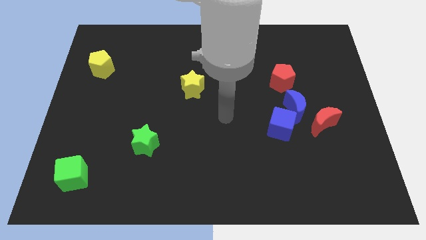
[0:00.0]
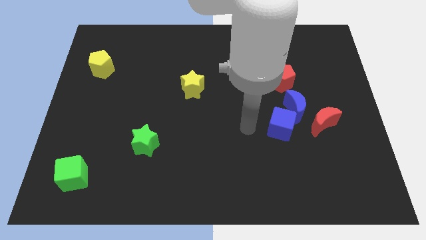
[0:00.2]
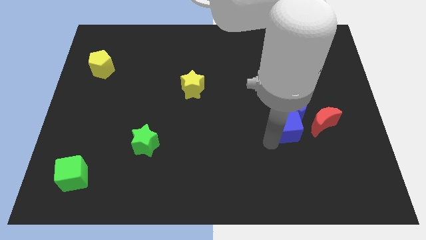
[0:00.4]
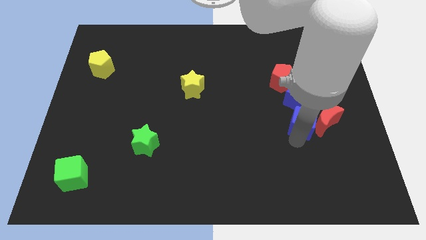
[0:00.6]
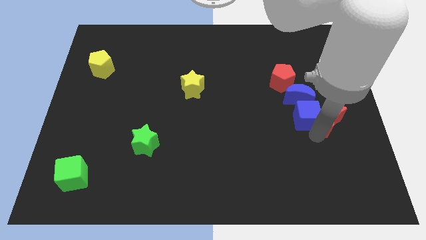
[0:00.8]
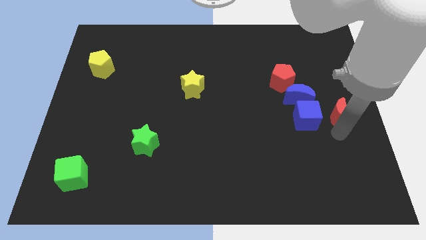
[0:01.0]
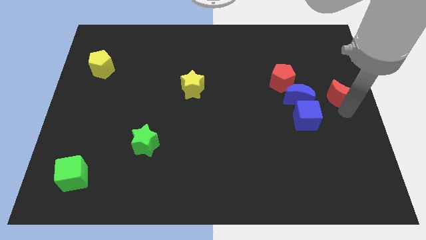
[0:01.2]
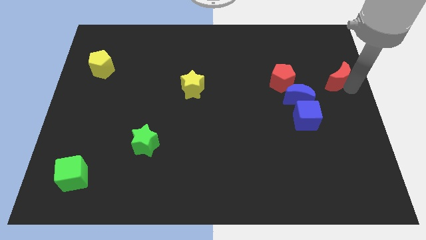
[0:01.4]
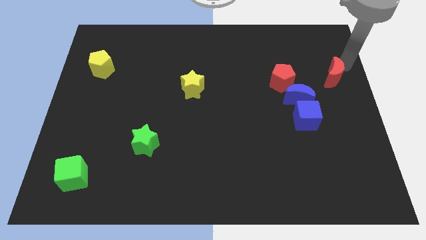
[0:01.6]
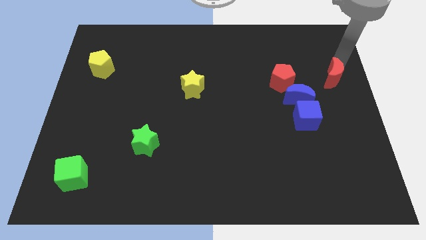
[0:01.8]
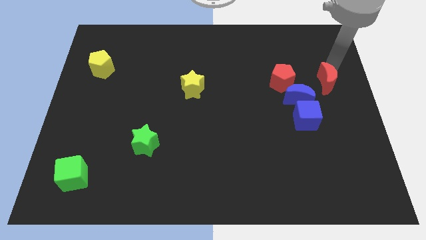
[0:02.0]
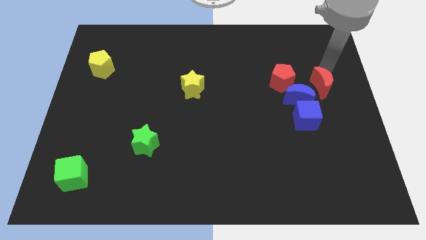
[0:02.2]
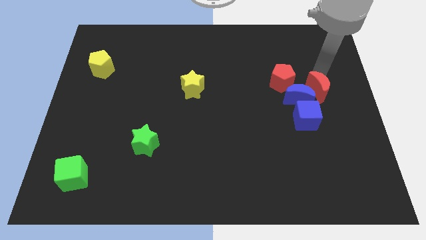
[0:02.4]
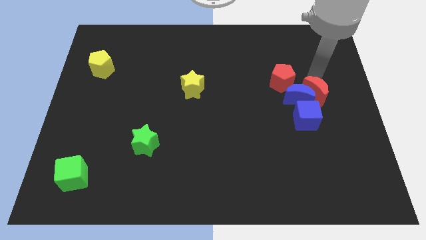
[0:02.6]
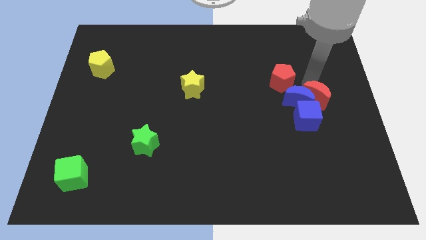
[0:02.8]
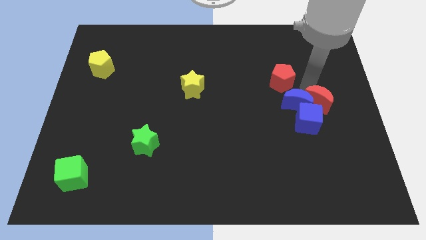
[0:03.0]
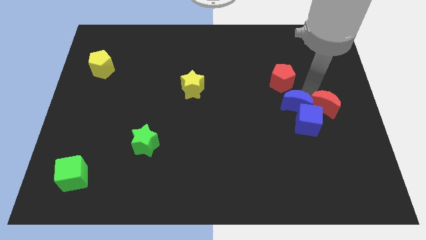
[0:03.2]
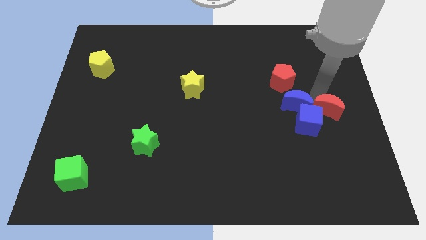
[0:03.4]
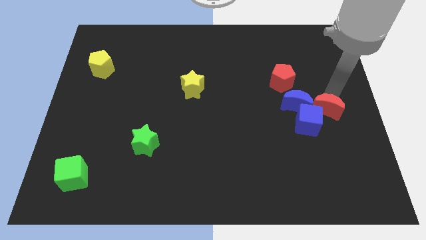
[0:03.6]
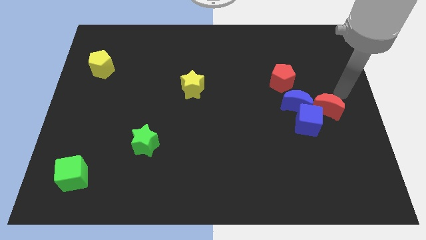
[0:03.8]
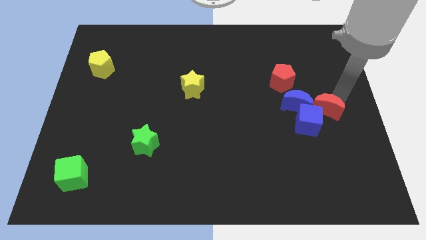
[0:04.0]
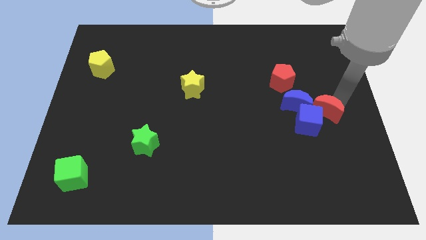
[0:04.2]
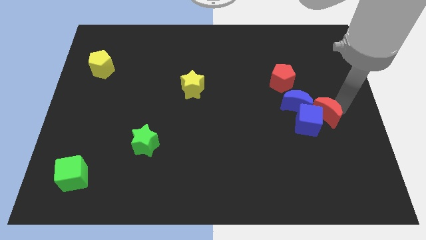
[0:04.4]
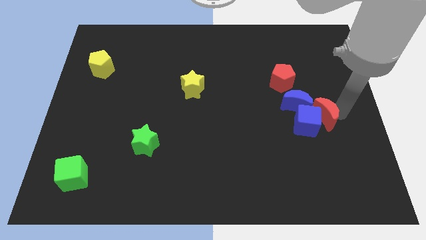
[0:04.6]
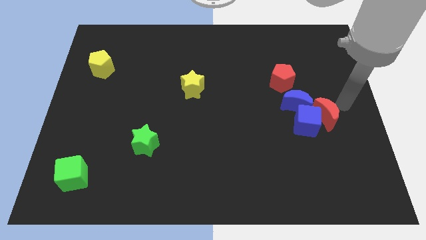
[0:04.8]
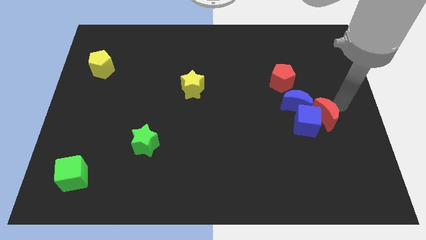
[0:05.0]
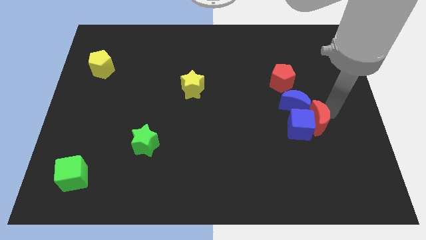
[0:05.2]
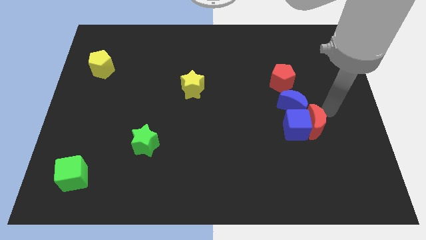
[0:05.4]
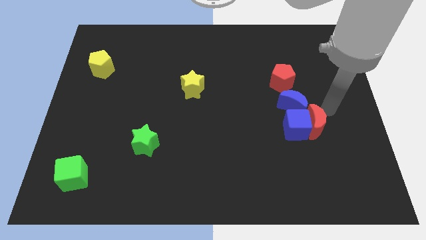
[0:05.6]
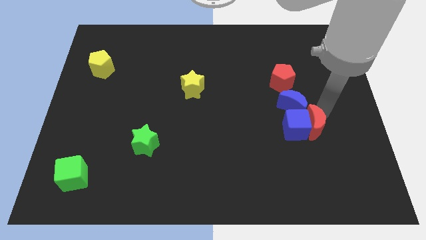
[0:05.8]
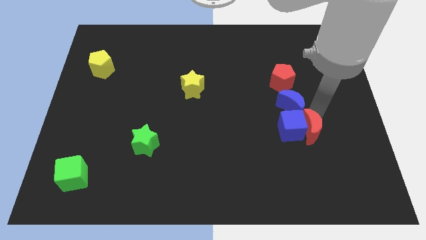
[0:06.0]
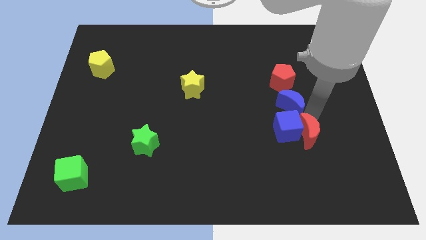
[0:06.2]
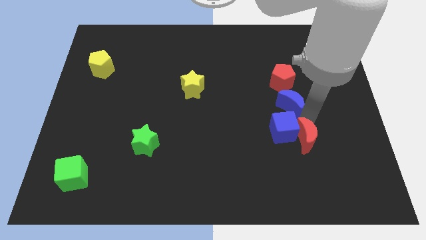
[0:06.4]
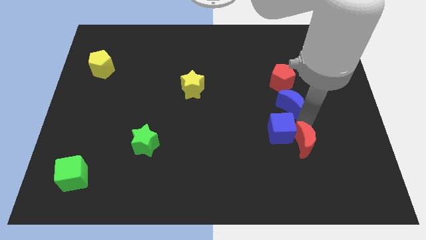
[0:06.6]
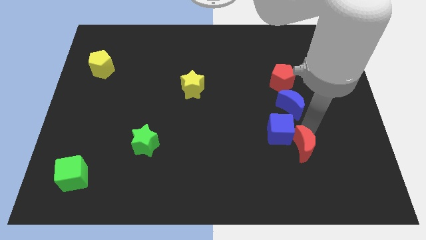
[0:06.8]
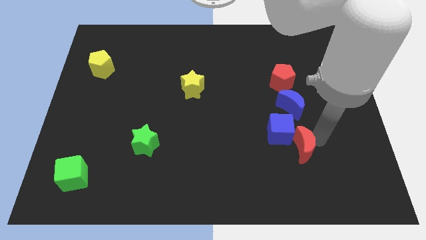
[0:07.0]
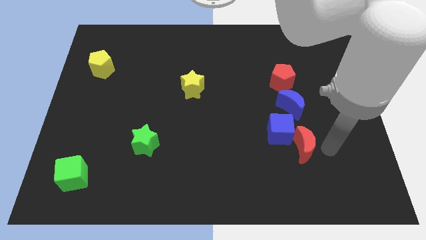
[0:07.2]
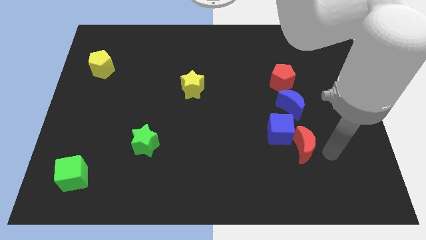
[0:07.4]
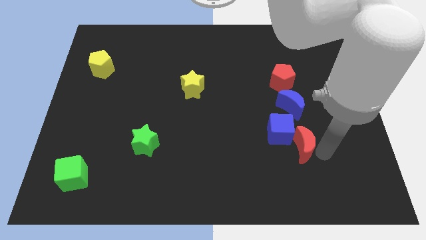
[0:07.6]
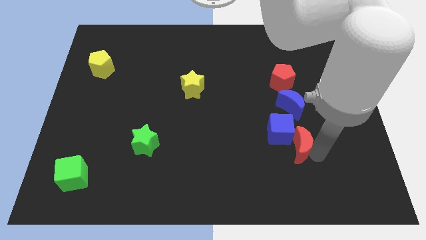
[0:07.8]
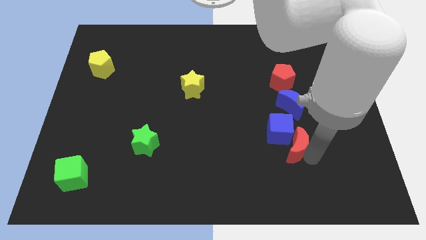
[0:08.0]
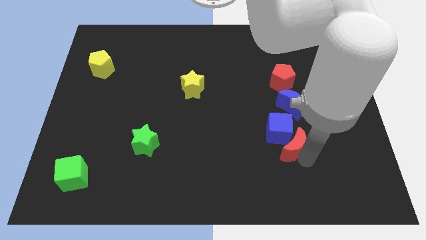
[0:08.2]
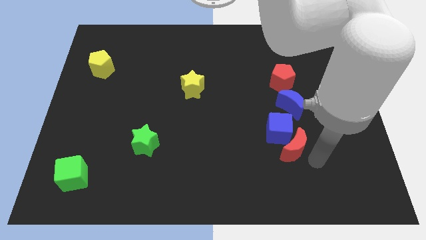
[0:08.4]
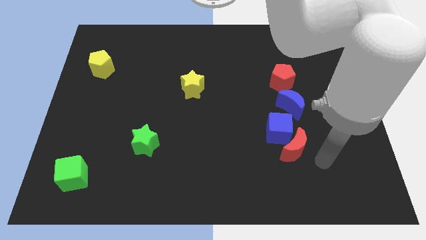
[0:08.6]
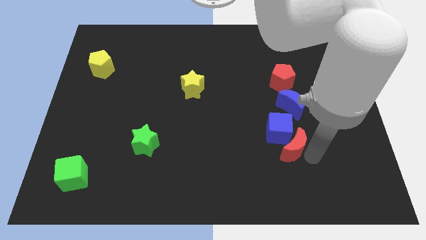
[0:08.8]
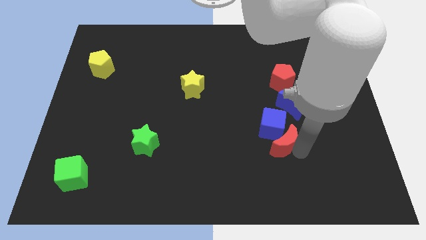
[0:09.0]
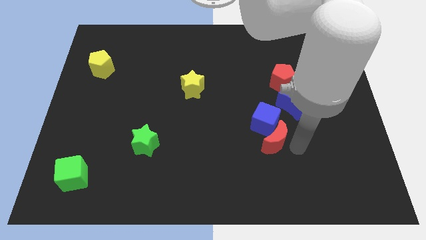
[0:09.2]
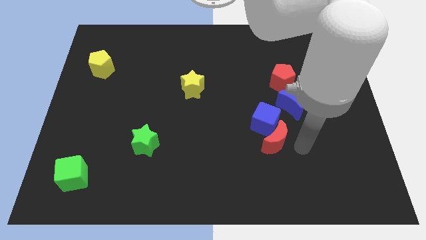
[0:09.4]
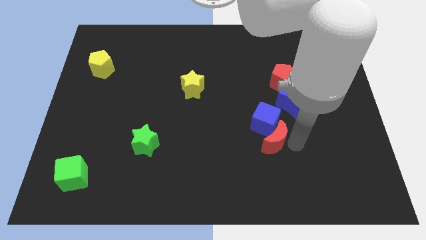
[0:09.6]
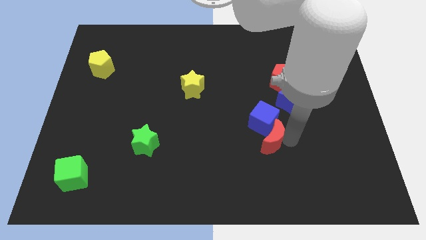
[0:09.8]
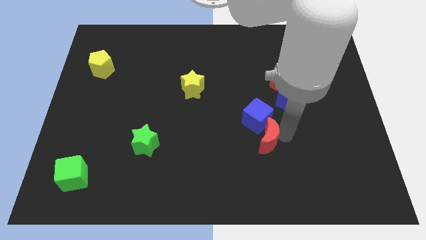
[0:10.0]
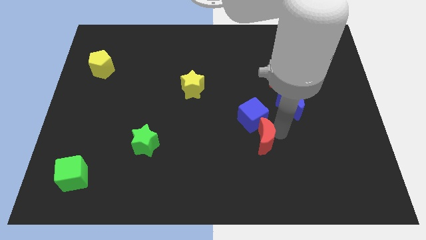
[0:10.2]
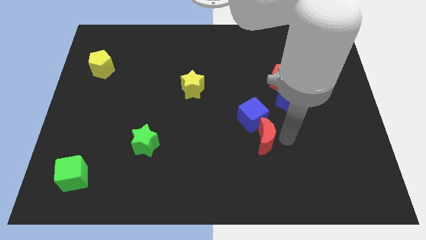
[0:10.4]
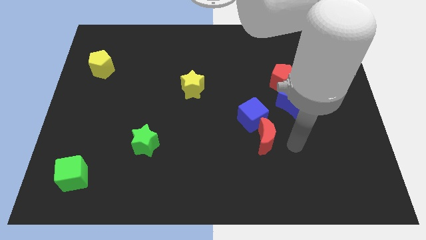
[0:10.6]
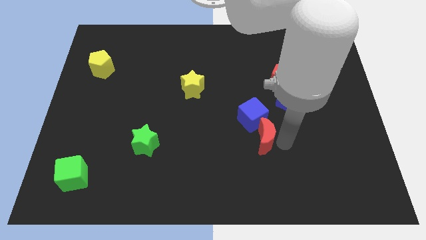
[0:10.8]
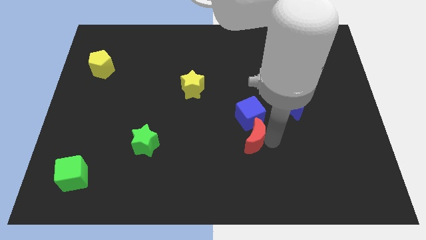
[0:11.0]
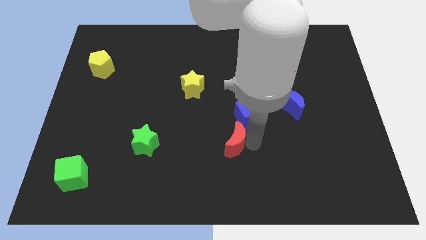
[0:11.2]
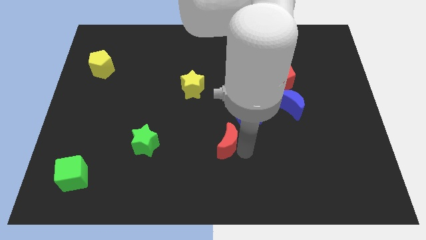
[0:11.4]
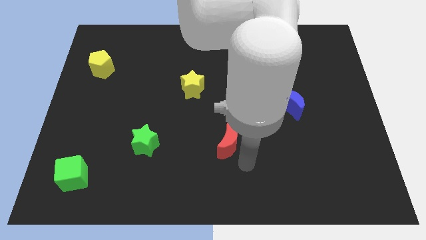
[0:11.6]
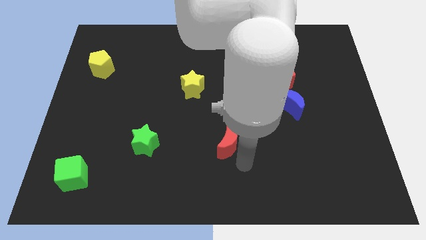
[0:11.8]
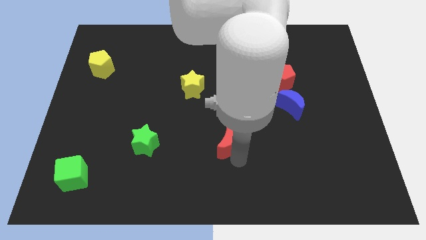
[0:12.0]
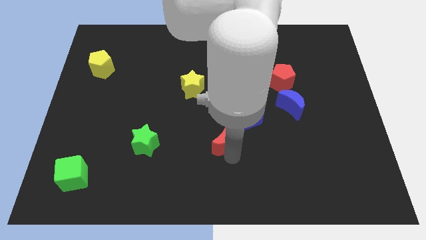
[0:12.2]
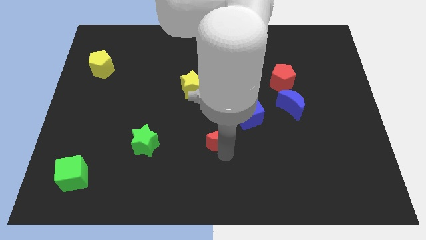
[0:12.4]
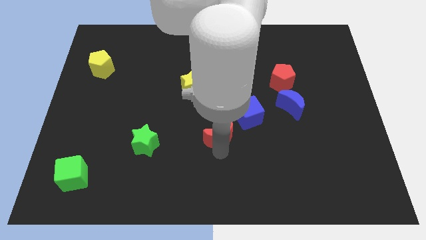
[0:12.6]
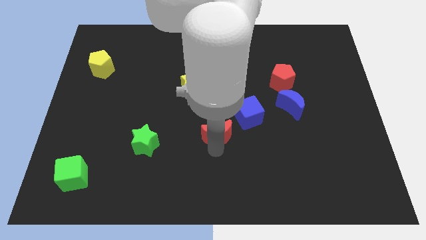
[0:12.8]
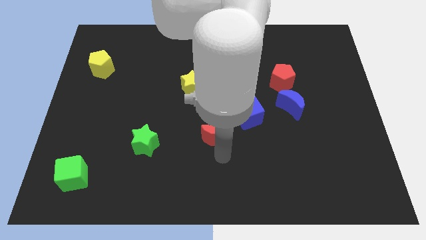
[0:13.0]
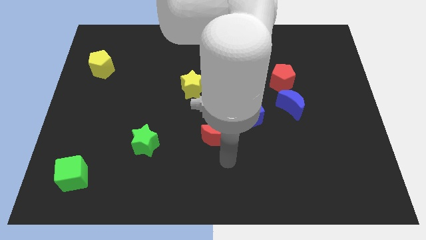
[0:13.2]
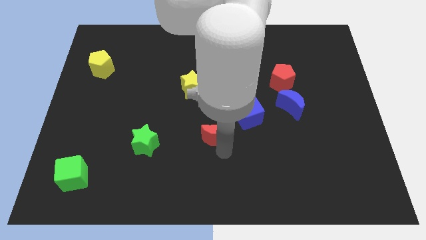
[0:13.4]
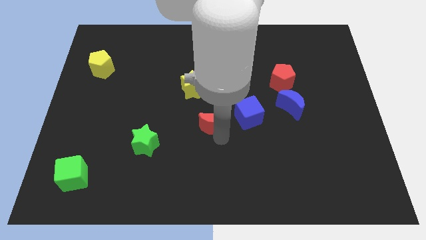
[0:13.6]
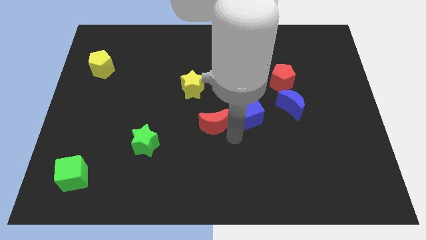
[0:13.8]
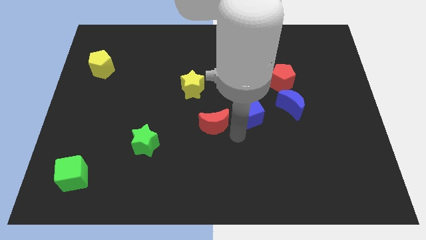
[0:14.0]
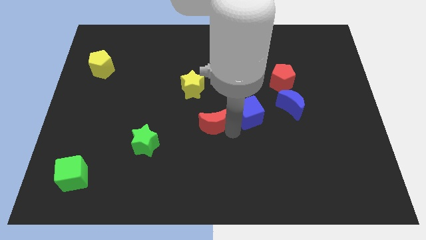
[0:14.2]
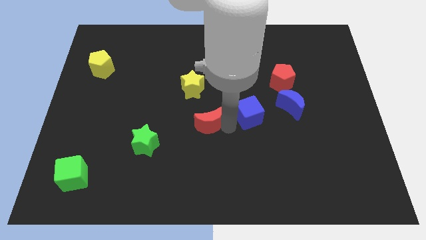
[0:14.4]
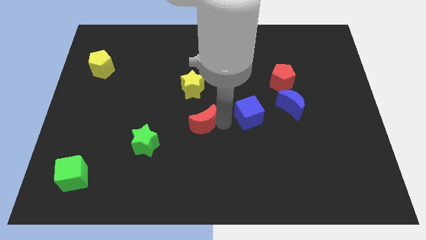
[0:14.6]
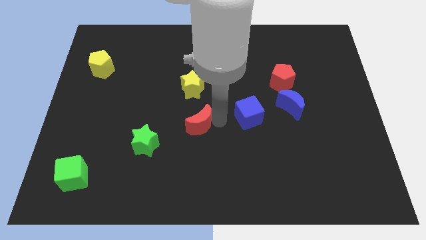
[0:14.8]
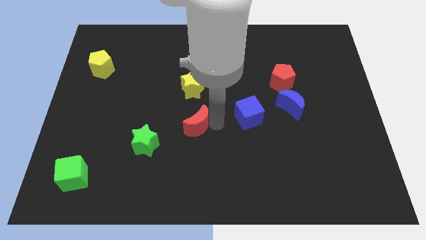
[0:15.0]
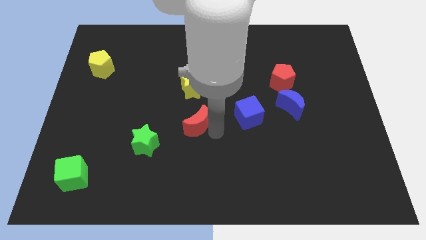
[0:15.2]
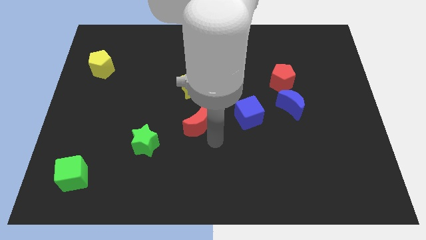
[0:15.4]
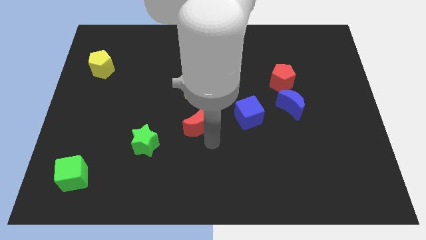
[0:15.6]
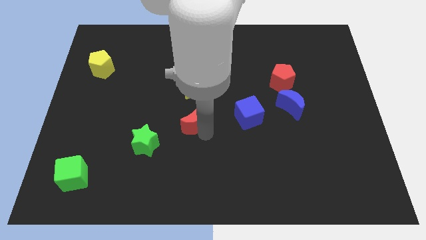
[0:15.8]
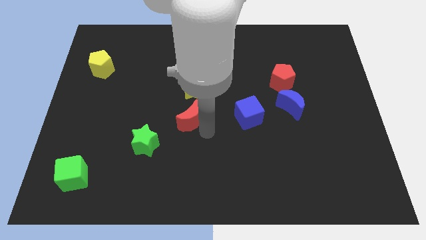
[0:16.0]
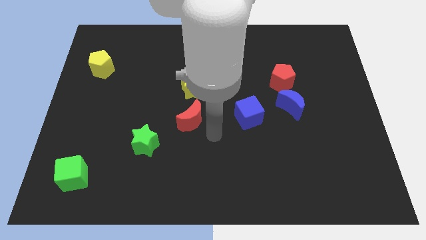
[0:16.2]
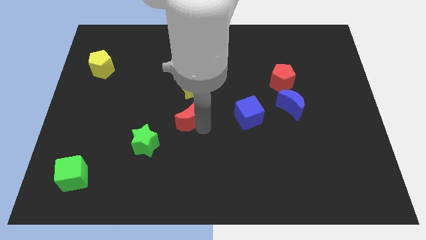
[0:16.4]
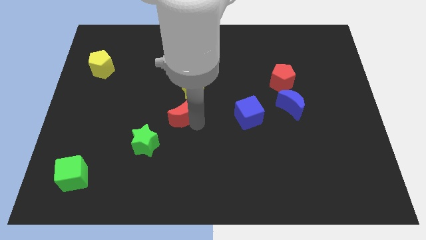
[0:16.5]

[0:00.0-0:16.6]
push the red moon diagonally down and to the left of the yellow star
